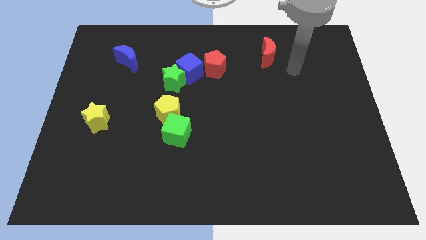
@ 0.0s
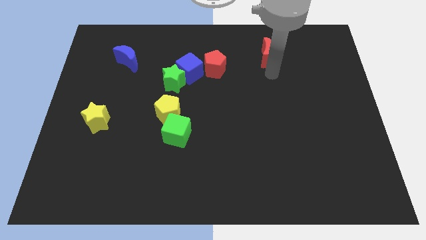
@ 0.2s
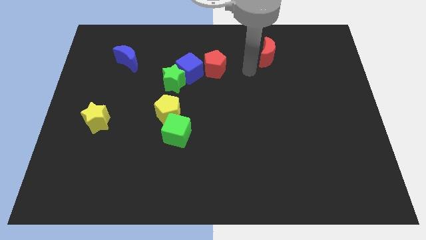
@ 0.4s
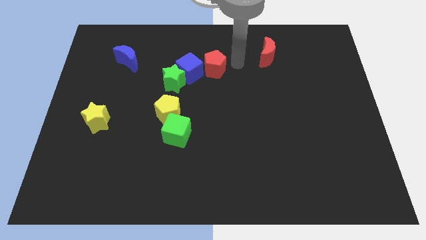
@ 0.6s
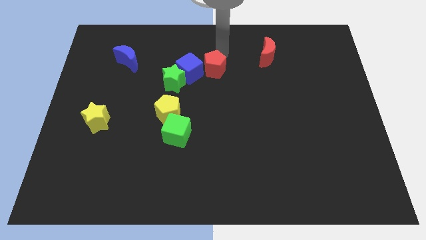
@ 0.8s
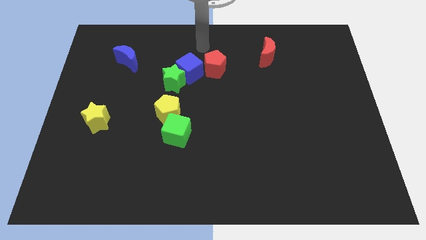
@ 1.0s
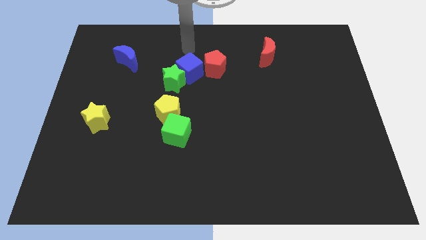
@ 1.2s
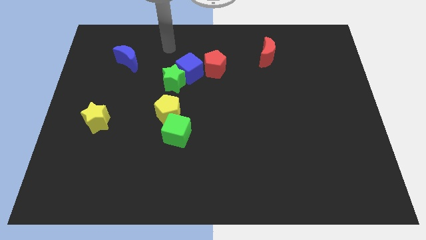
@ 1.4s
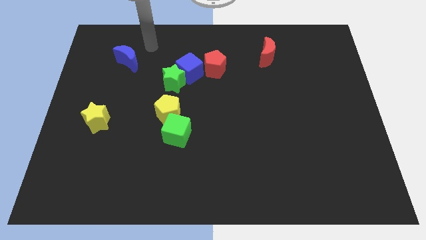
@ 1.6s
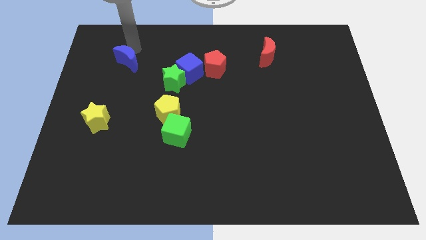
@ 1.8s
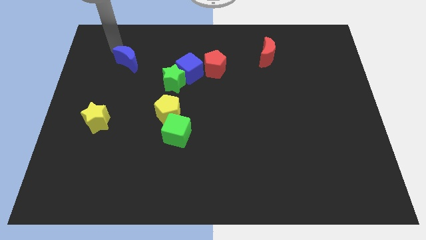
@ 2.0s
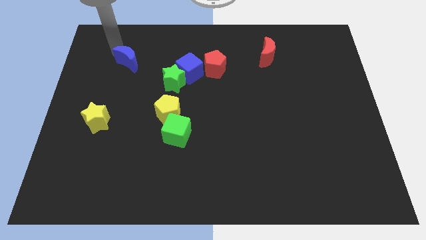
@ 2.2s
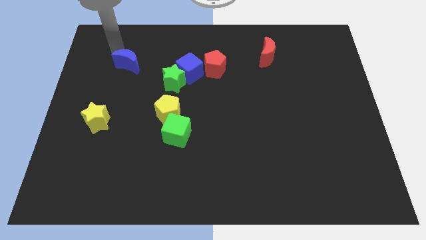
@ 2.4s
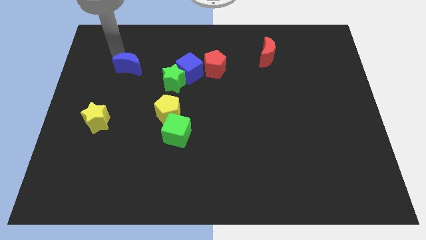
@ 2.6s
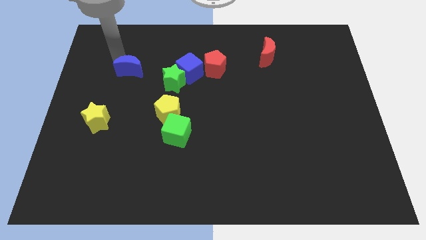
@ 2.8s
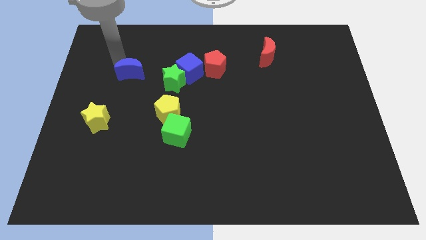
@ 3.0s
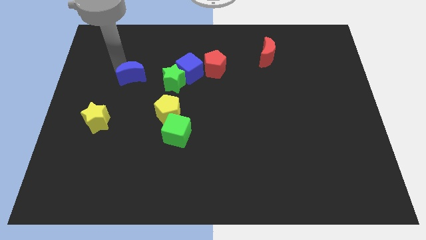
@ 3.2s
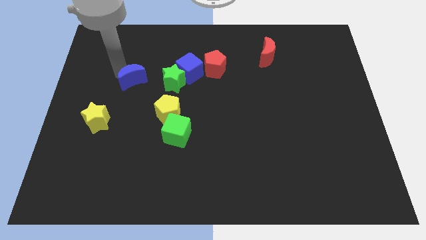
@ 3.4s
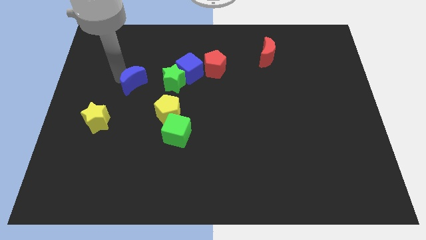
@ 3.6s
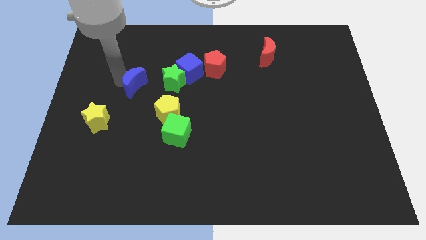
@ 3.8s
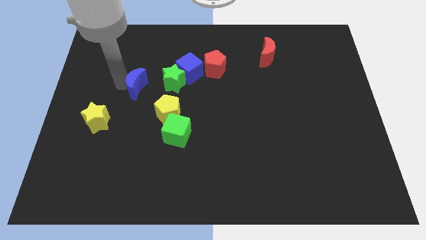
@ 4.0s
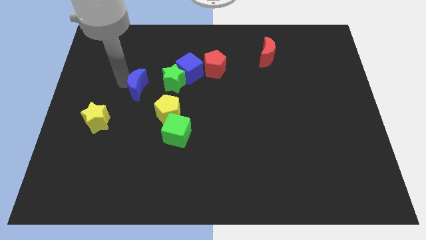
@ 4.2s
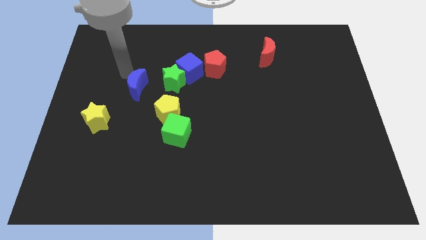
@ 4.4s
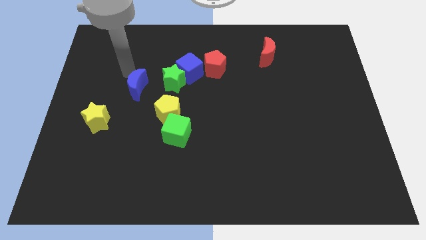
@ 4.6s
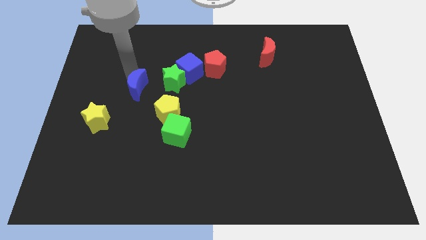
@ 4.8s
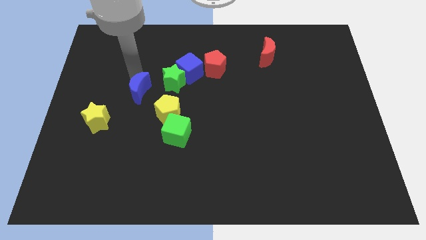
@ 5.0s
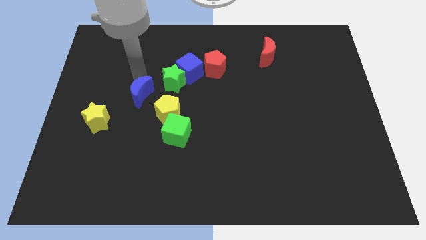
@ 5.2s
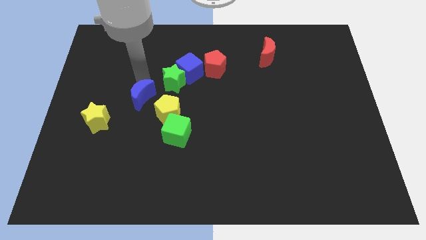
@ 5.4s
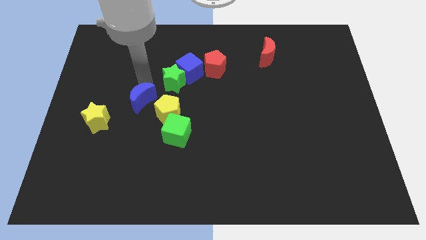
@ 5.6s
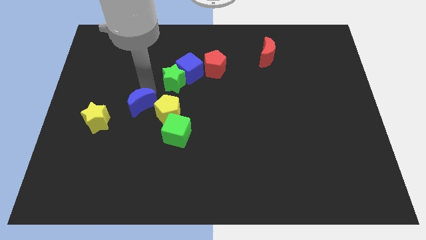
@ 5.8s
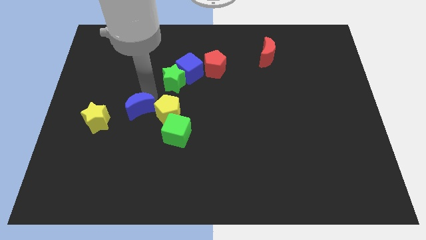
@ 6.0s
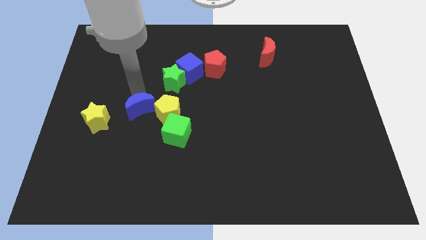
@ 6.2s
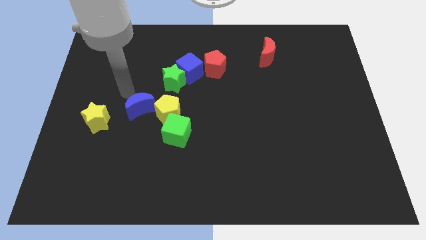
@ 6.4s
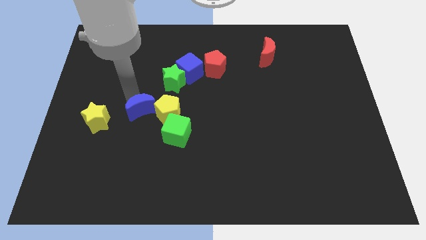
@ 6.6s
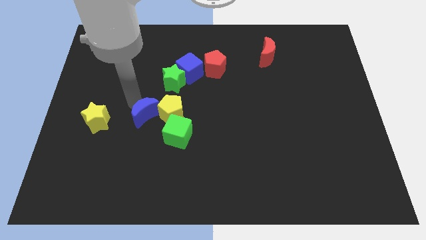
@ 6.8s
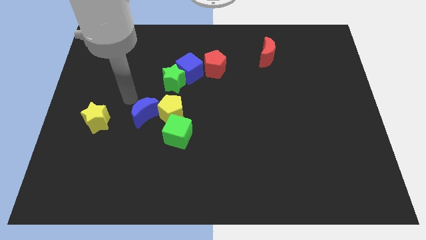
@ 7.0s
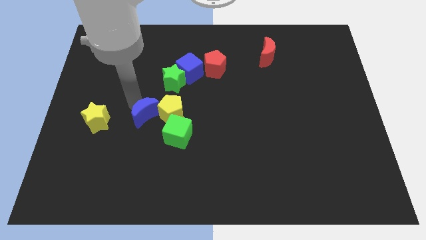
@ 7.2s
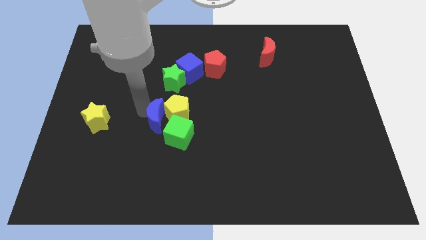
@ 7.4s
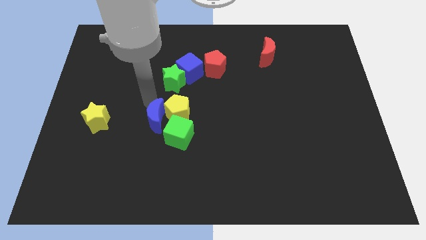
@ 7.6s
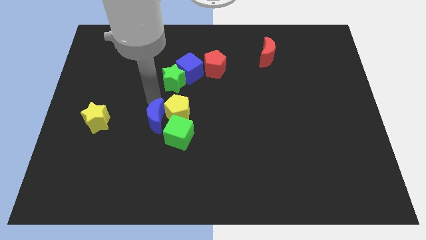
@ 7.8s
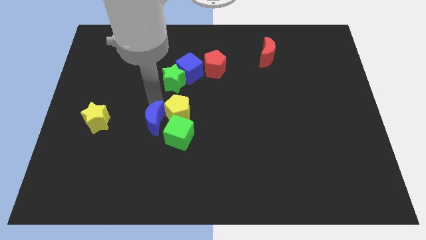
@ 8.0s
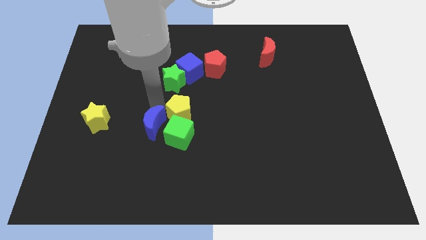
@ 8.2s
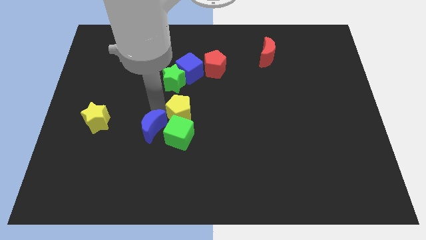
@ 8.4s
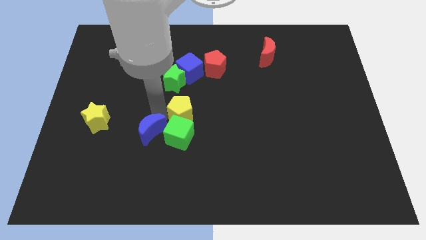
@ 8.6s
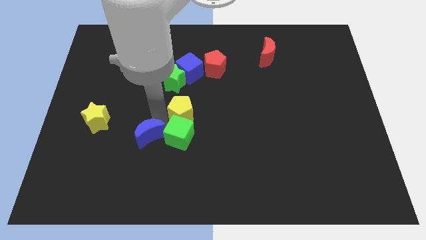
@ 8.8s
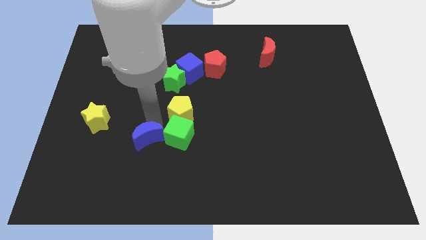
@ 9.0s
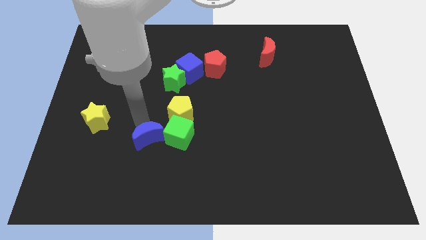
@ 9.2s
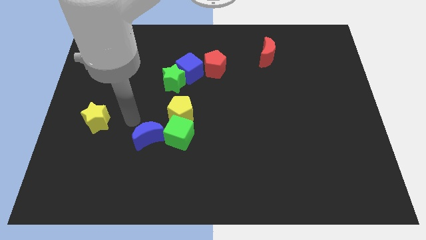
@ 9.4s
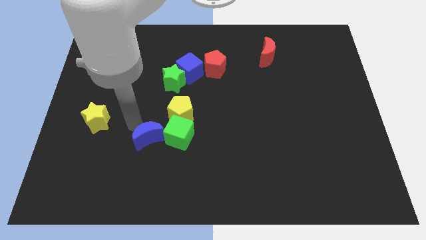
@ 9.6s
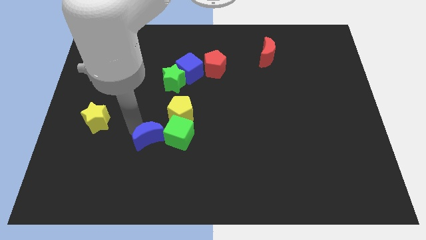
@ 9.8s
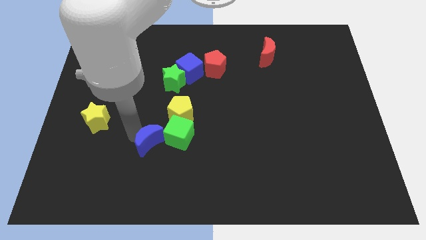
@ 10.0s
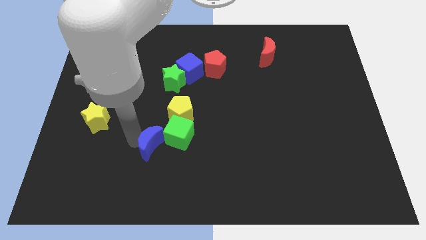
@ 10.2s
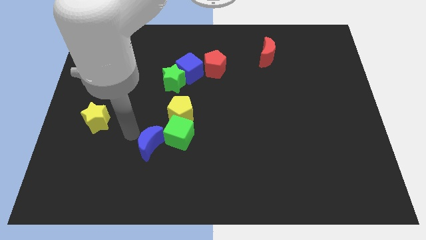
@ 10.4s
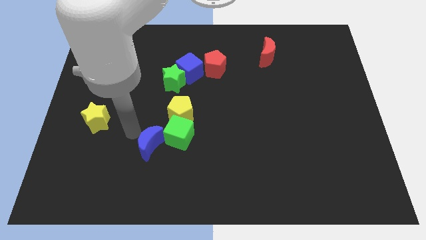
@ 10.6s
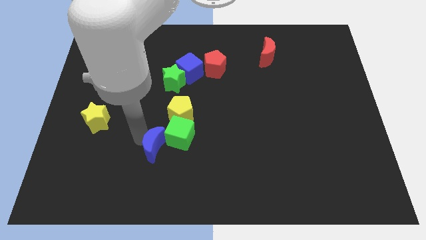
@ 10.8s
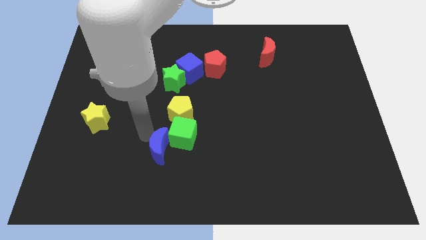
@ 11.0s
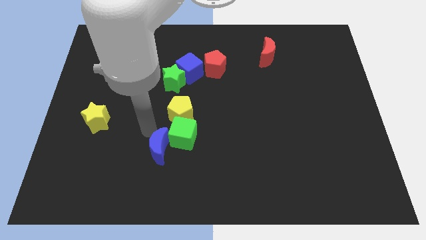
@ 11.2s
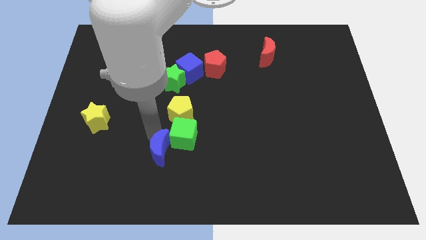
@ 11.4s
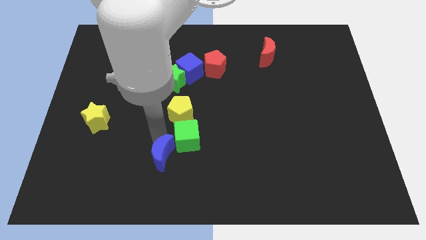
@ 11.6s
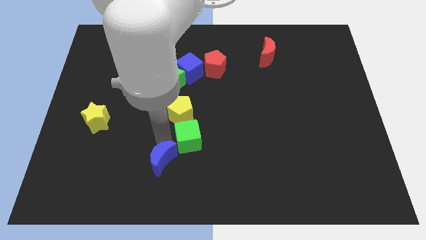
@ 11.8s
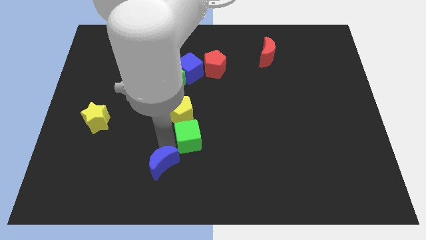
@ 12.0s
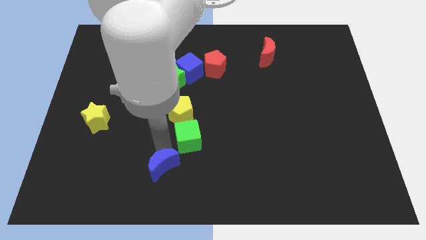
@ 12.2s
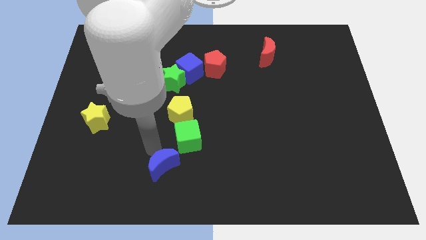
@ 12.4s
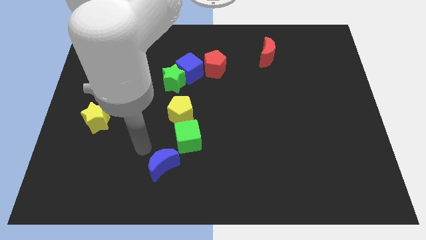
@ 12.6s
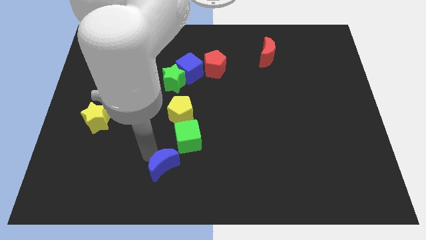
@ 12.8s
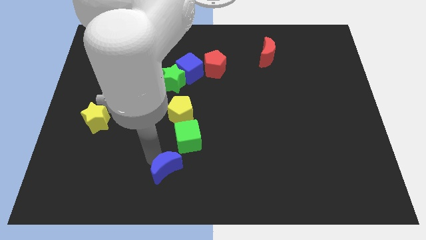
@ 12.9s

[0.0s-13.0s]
slide the blue moon to the bottom
